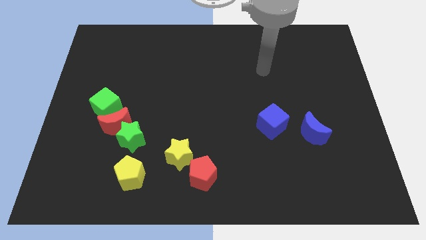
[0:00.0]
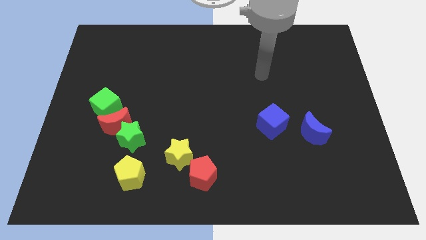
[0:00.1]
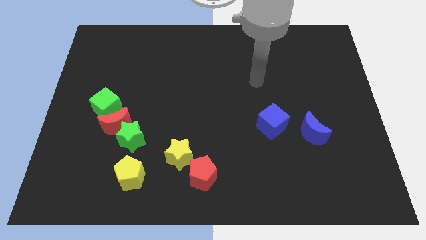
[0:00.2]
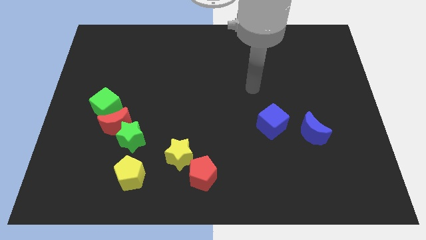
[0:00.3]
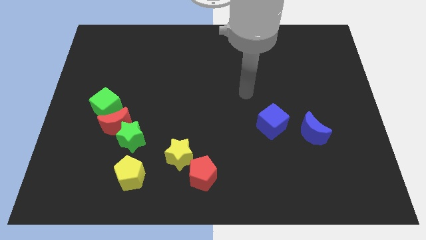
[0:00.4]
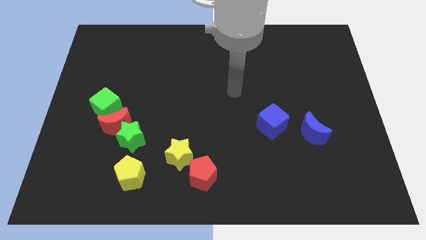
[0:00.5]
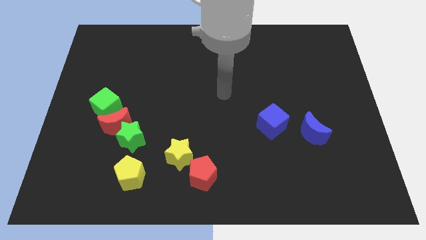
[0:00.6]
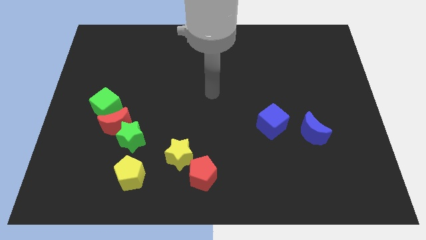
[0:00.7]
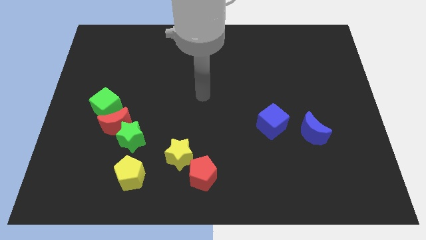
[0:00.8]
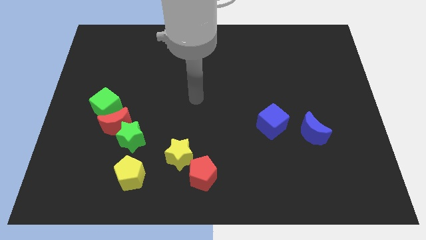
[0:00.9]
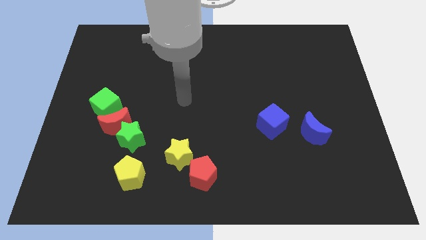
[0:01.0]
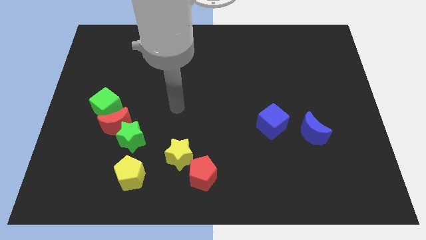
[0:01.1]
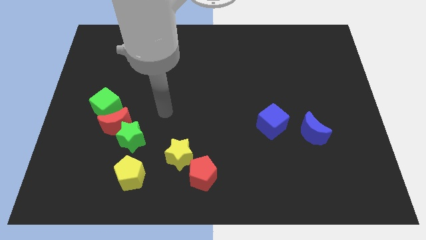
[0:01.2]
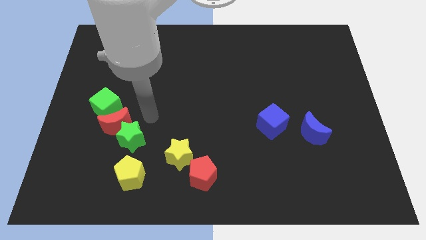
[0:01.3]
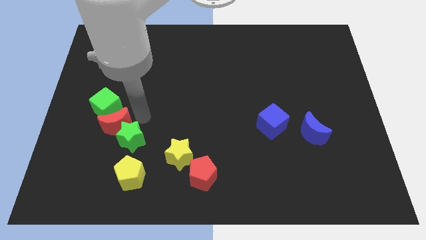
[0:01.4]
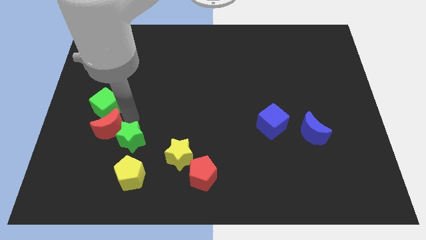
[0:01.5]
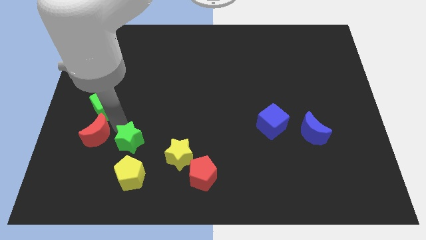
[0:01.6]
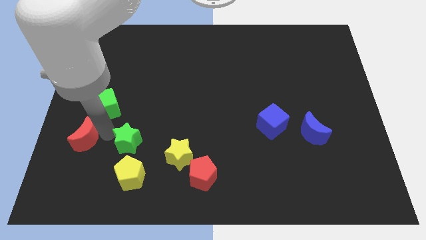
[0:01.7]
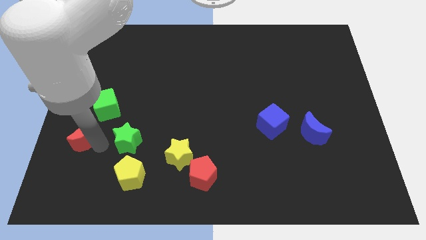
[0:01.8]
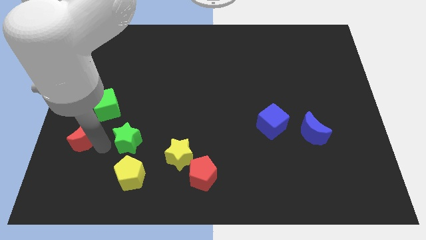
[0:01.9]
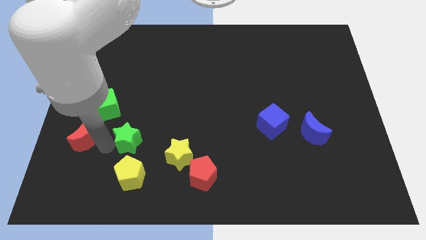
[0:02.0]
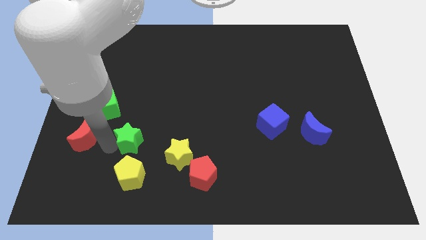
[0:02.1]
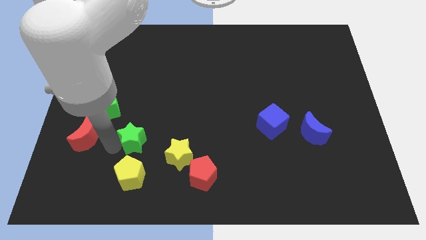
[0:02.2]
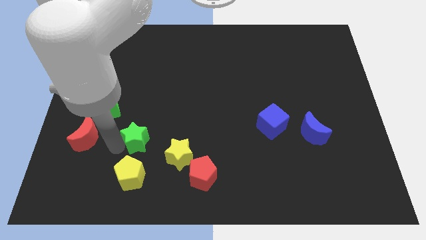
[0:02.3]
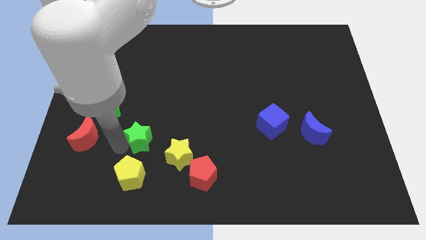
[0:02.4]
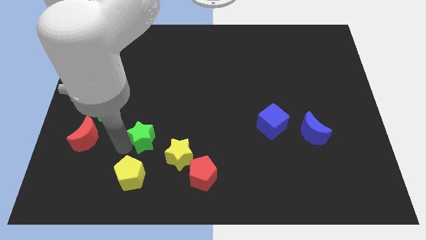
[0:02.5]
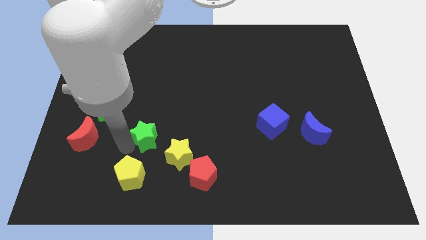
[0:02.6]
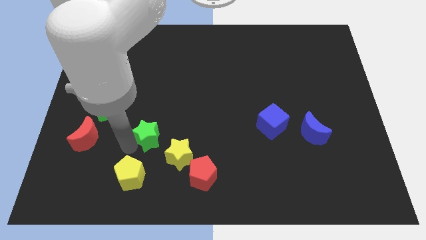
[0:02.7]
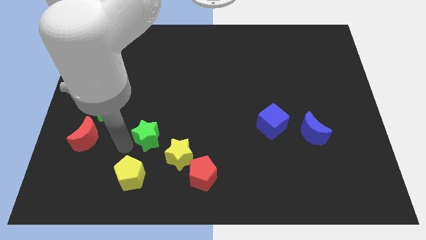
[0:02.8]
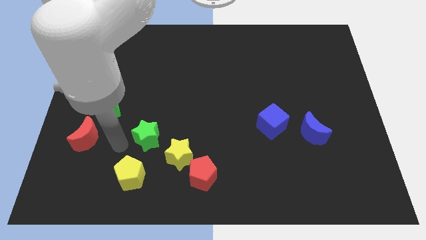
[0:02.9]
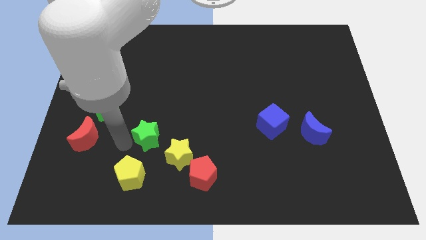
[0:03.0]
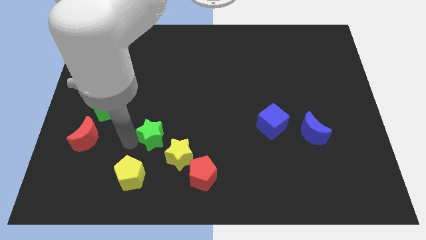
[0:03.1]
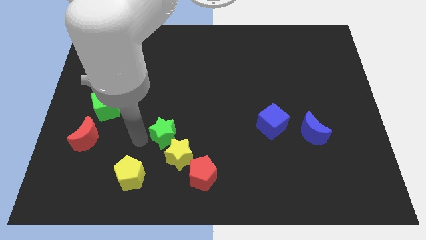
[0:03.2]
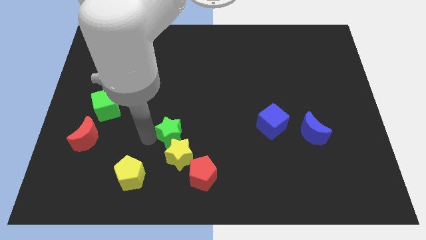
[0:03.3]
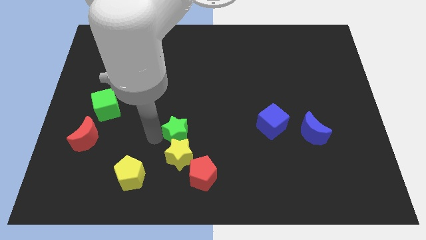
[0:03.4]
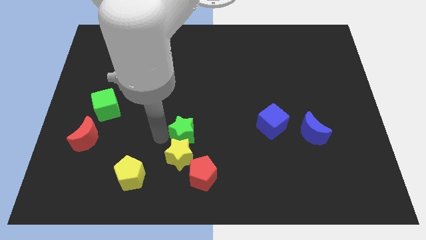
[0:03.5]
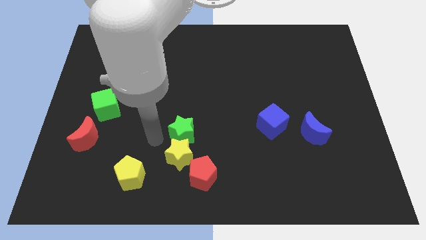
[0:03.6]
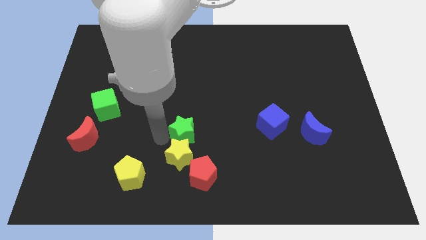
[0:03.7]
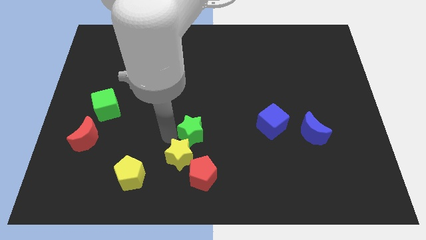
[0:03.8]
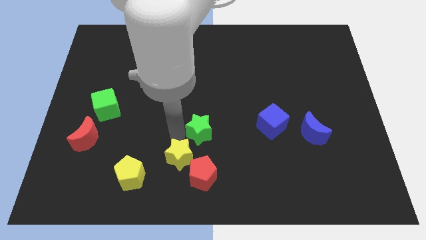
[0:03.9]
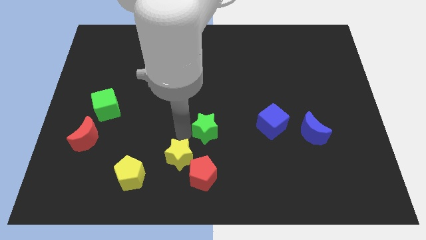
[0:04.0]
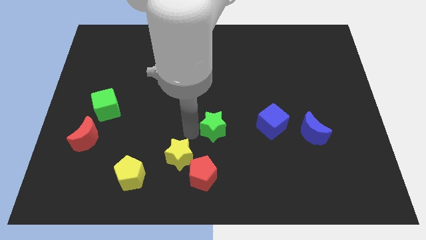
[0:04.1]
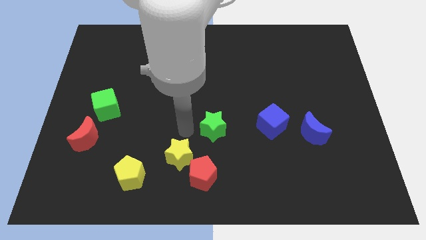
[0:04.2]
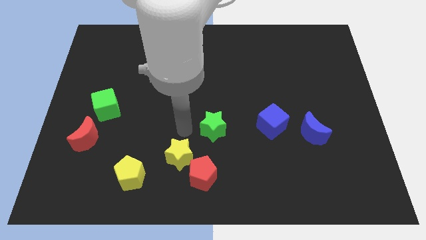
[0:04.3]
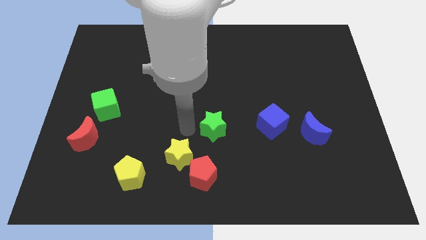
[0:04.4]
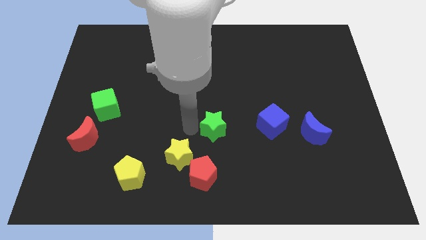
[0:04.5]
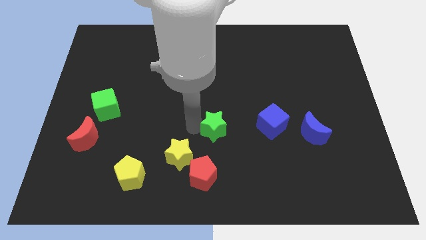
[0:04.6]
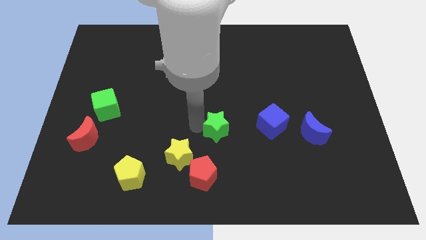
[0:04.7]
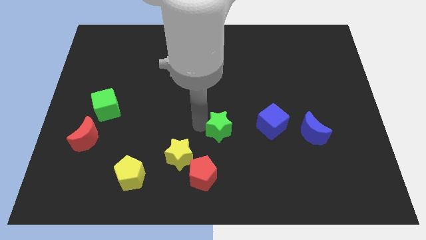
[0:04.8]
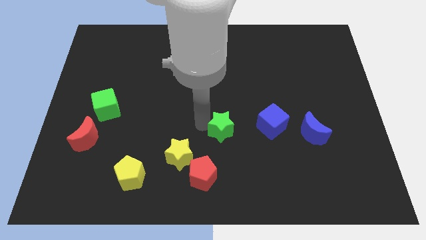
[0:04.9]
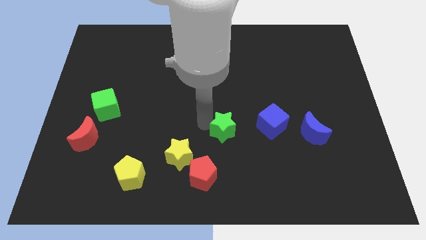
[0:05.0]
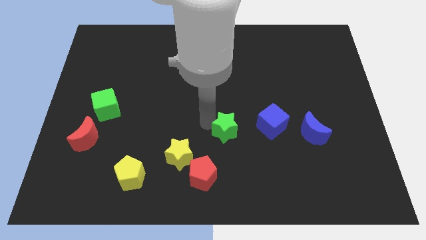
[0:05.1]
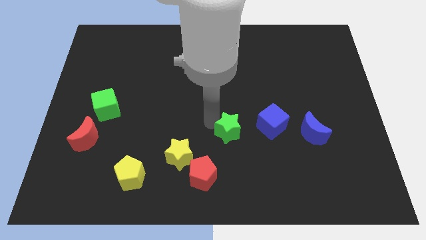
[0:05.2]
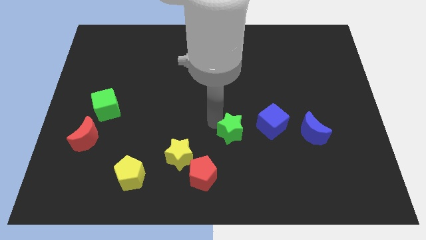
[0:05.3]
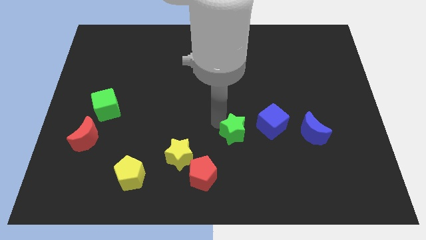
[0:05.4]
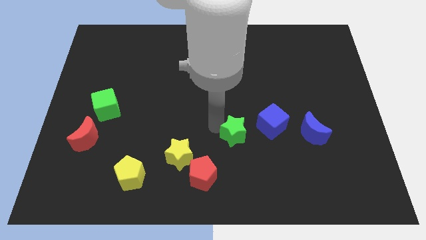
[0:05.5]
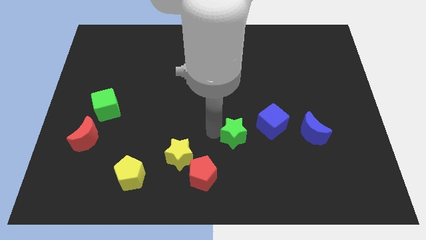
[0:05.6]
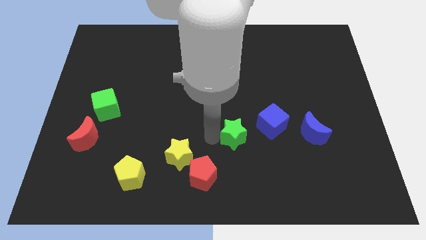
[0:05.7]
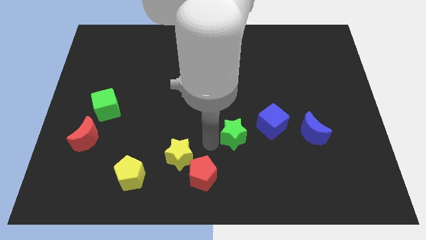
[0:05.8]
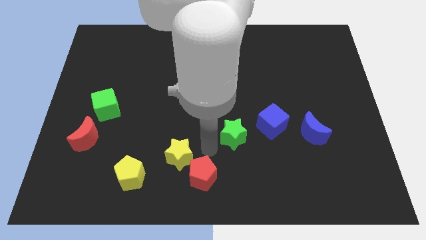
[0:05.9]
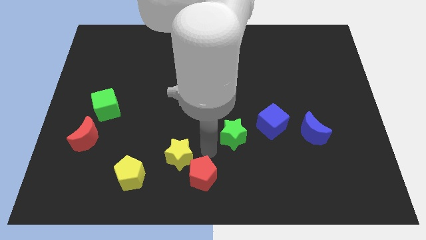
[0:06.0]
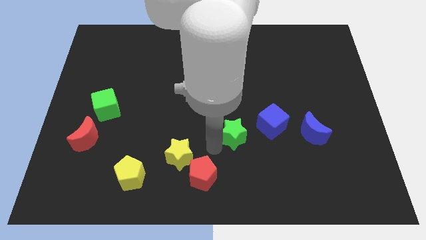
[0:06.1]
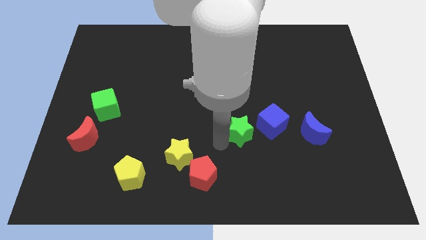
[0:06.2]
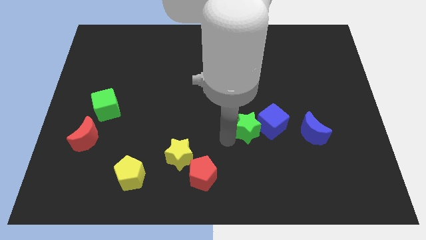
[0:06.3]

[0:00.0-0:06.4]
move the green star next to the blue cube

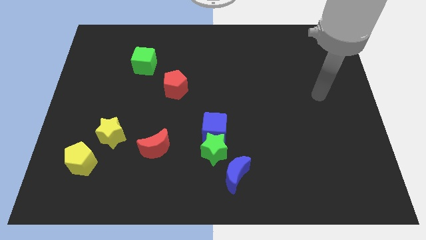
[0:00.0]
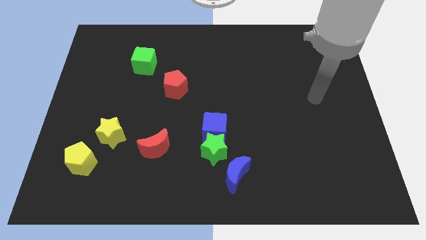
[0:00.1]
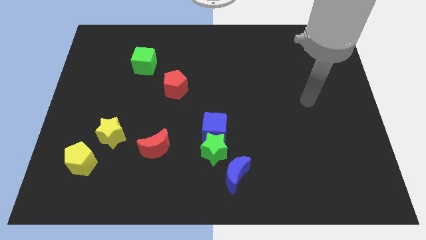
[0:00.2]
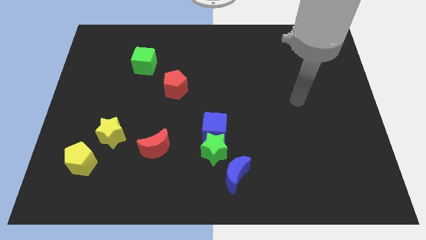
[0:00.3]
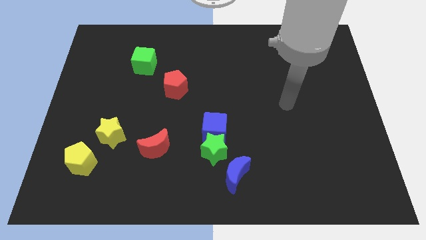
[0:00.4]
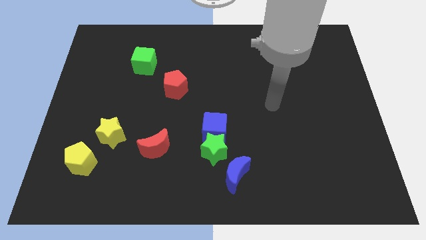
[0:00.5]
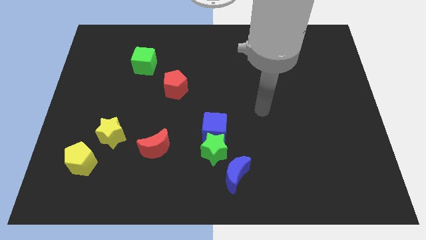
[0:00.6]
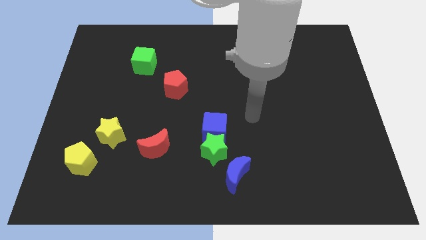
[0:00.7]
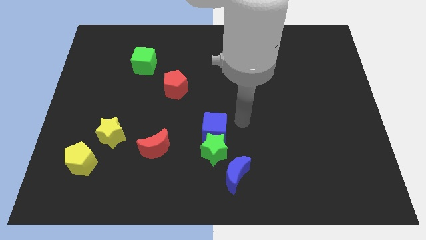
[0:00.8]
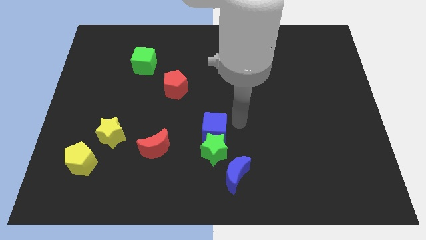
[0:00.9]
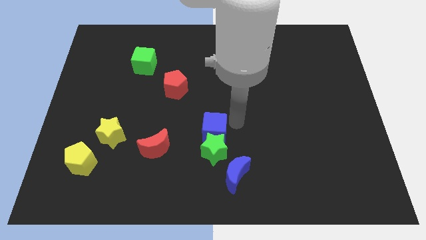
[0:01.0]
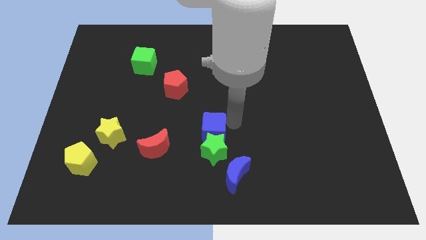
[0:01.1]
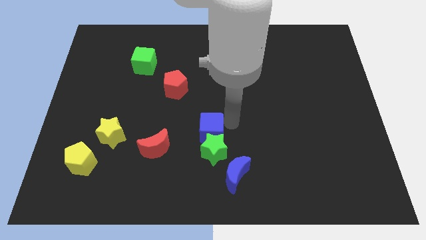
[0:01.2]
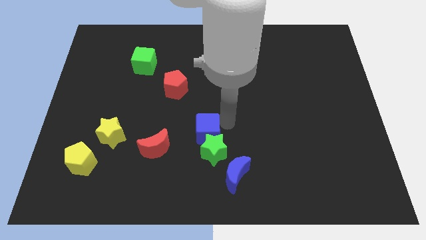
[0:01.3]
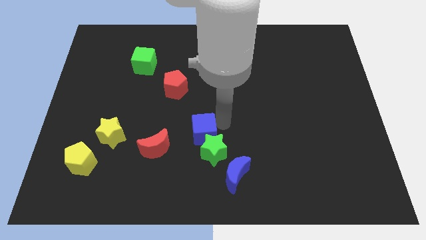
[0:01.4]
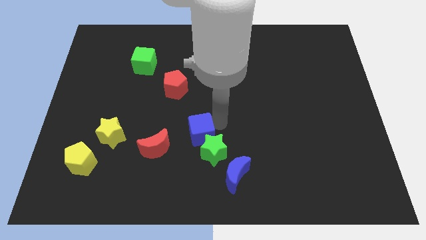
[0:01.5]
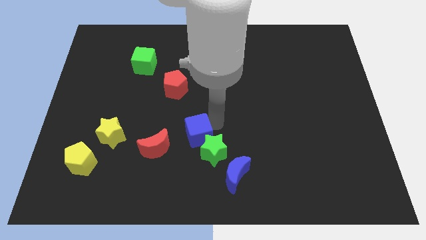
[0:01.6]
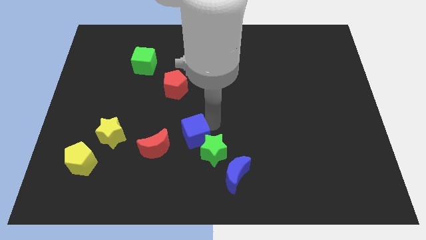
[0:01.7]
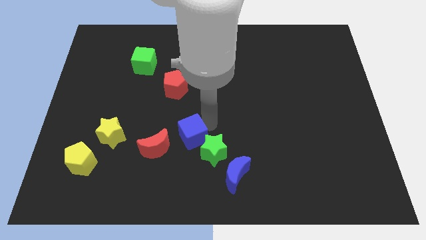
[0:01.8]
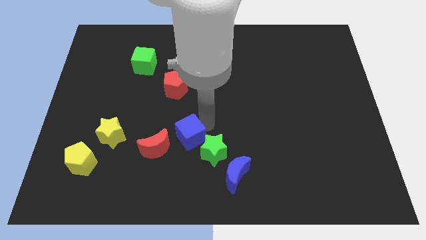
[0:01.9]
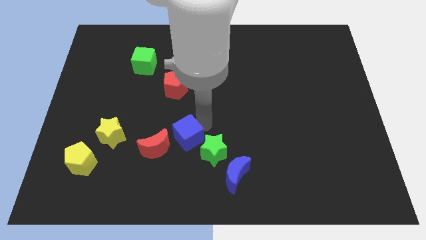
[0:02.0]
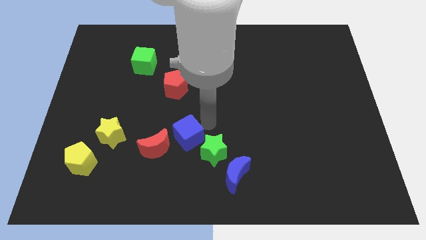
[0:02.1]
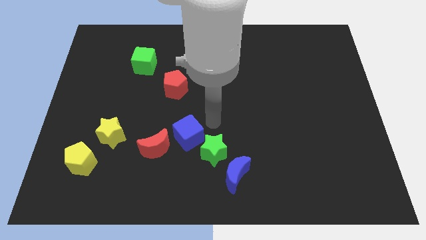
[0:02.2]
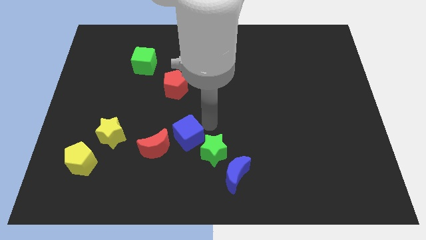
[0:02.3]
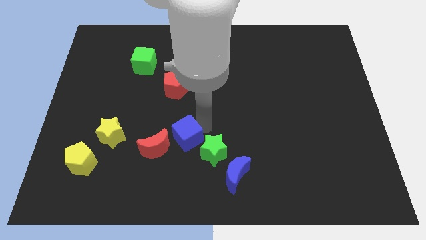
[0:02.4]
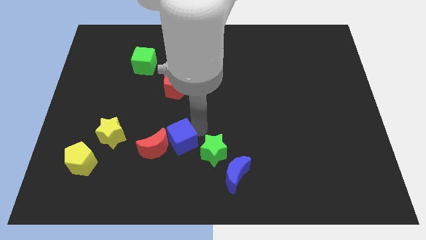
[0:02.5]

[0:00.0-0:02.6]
push the blue cube towards the red moon
